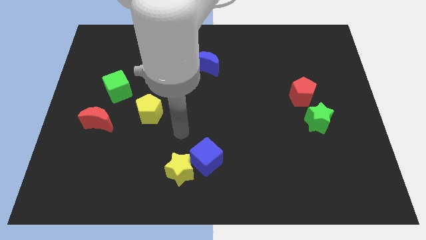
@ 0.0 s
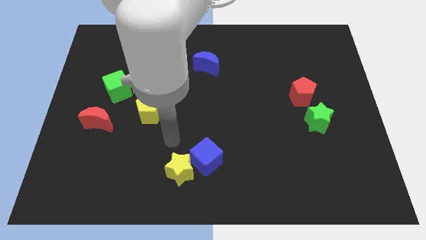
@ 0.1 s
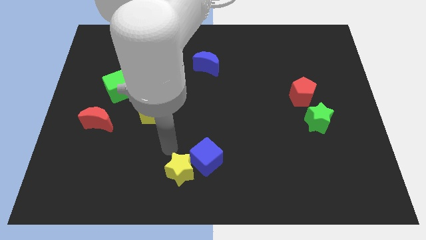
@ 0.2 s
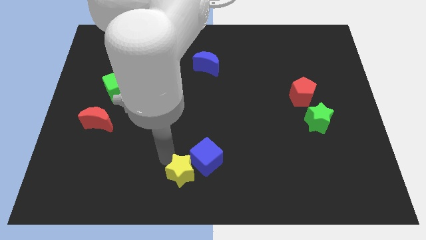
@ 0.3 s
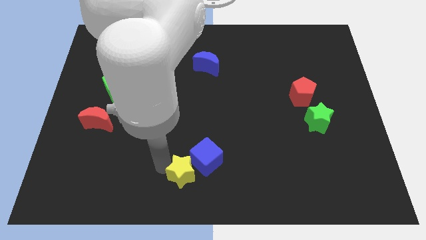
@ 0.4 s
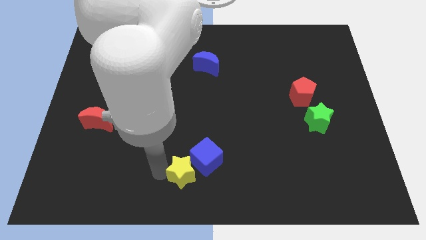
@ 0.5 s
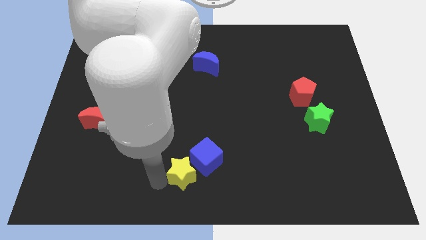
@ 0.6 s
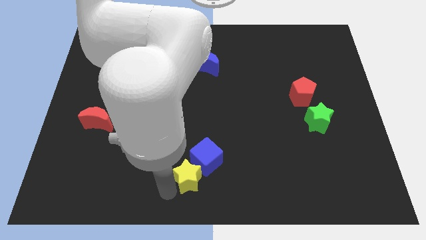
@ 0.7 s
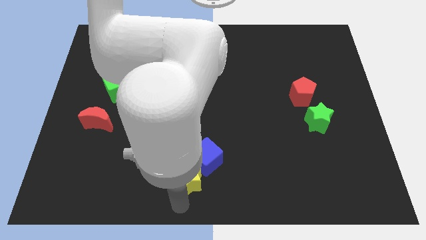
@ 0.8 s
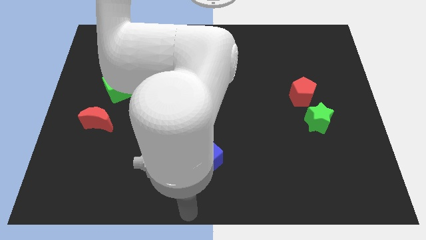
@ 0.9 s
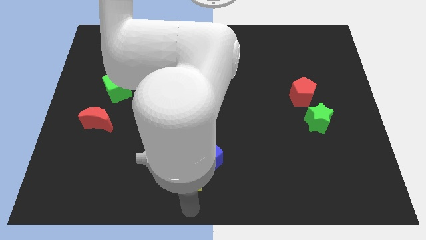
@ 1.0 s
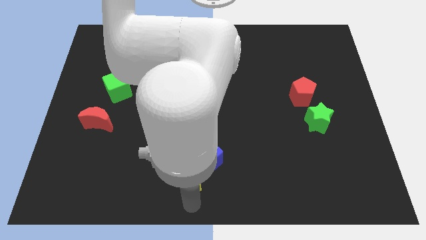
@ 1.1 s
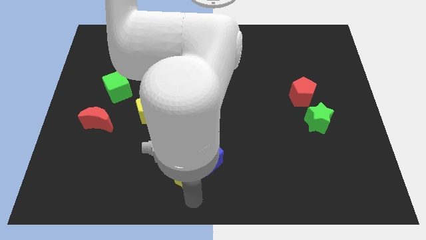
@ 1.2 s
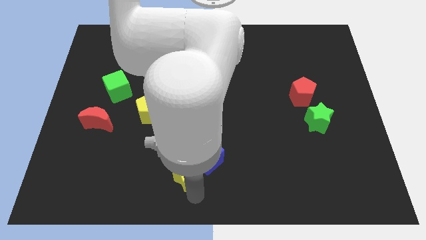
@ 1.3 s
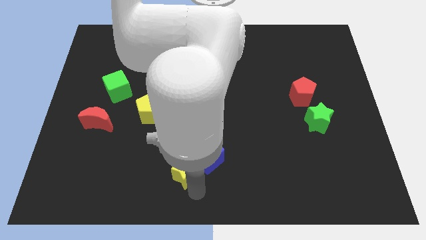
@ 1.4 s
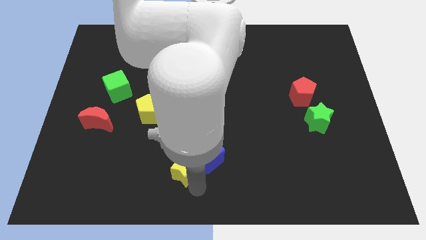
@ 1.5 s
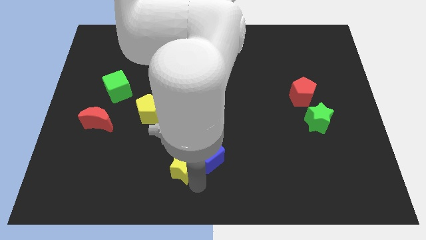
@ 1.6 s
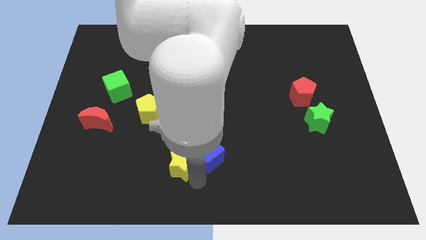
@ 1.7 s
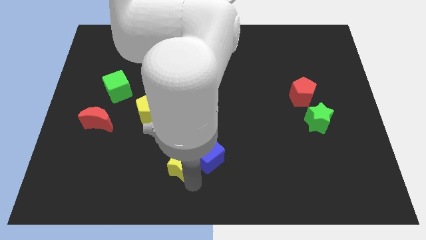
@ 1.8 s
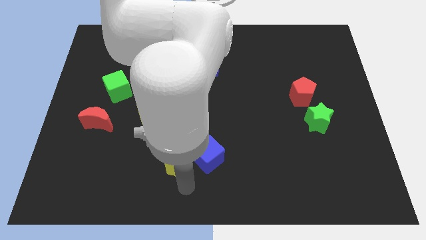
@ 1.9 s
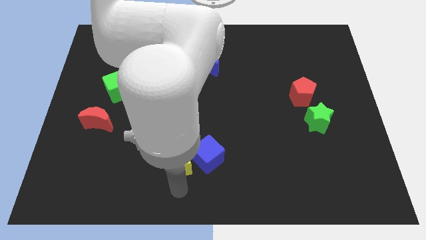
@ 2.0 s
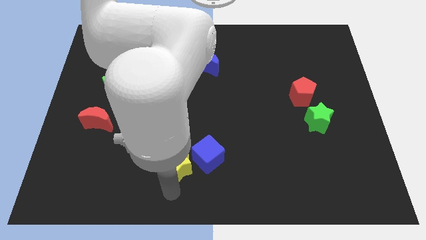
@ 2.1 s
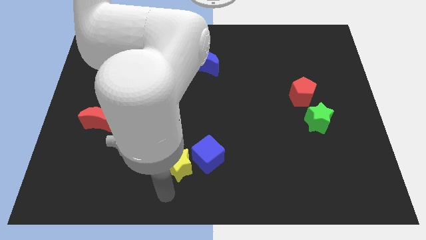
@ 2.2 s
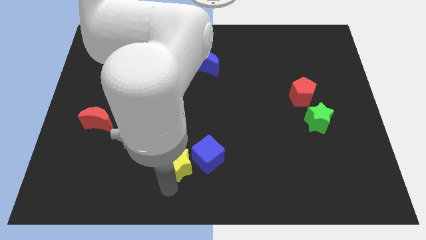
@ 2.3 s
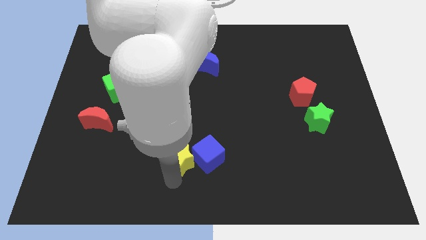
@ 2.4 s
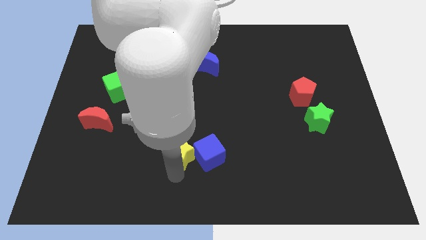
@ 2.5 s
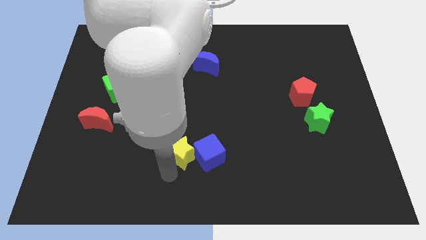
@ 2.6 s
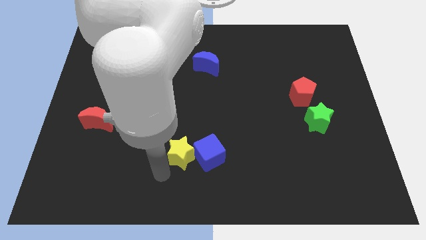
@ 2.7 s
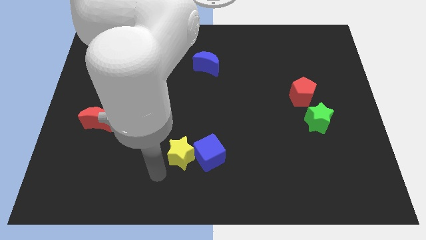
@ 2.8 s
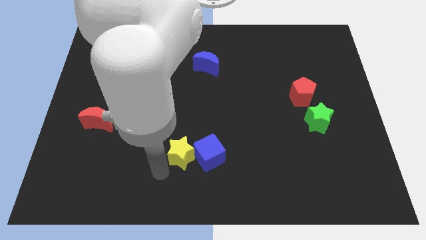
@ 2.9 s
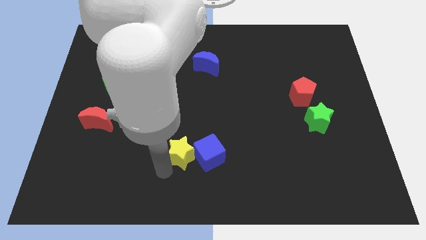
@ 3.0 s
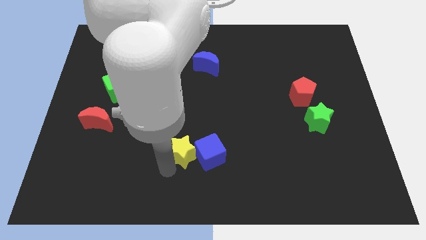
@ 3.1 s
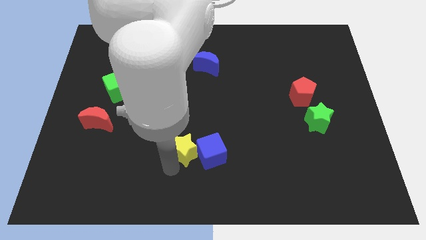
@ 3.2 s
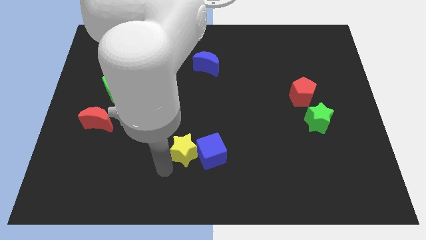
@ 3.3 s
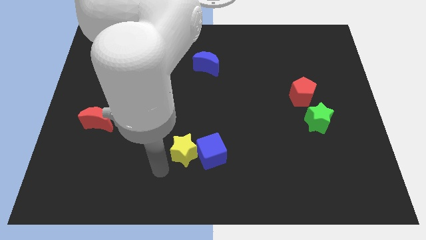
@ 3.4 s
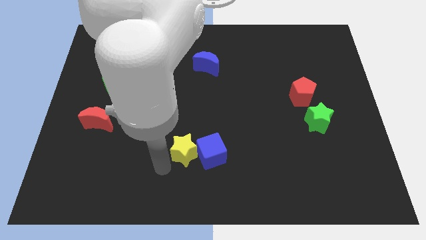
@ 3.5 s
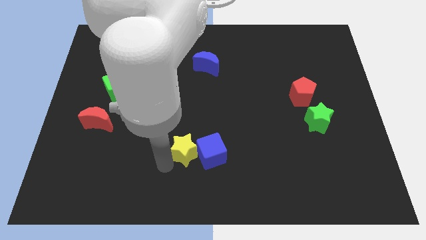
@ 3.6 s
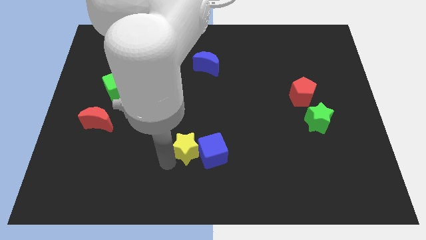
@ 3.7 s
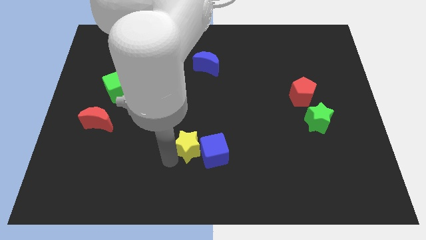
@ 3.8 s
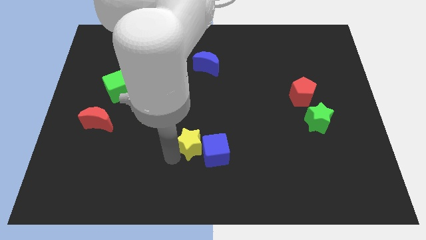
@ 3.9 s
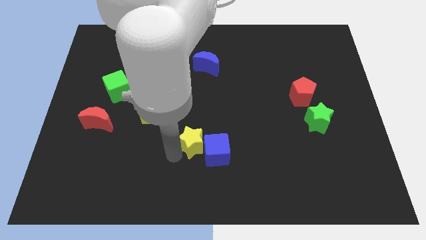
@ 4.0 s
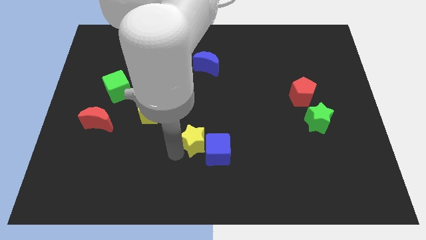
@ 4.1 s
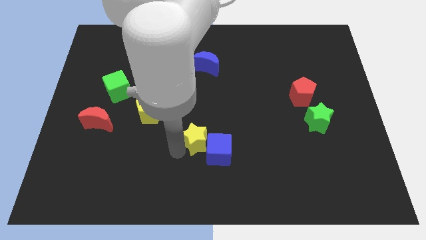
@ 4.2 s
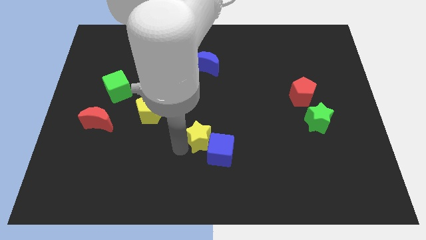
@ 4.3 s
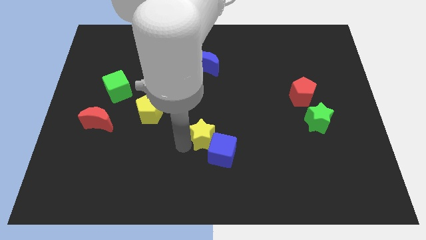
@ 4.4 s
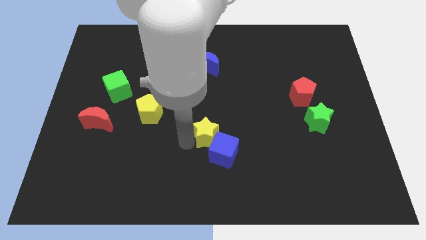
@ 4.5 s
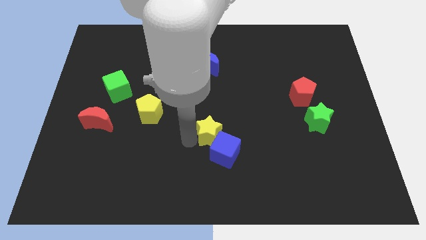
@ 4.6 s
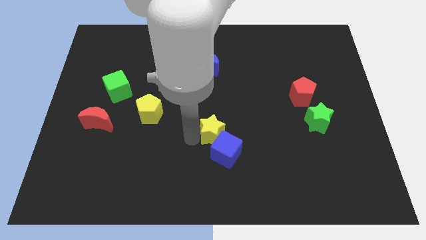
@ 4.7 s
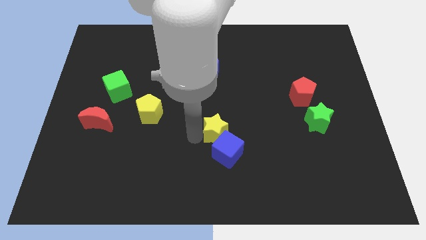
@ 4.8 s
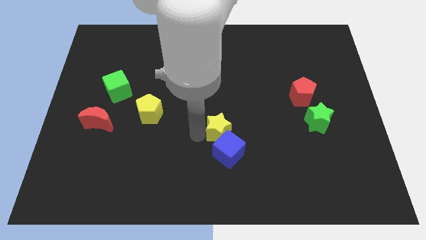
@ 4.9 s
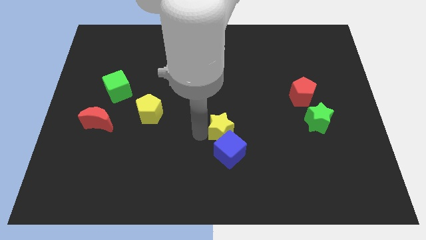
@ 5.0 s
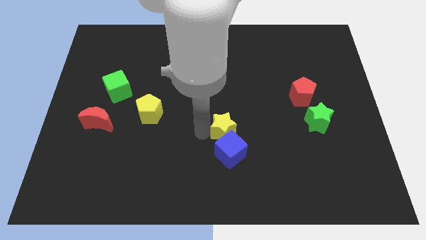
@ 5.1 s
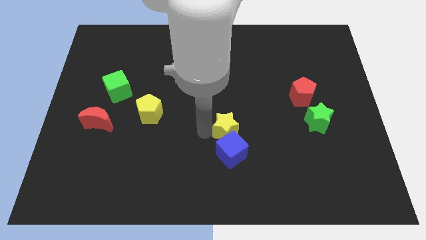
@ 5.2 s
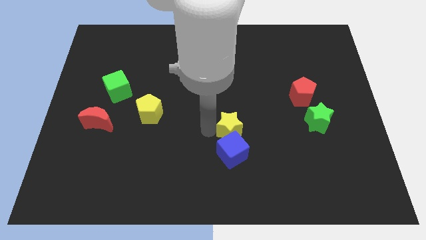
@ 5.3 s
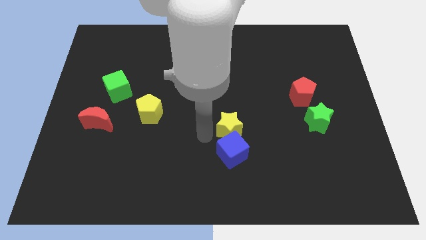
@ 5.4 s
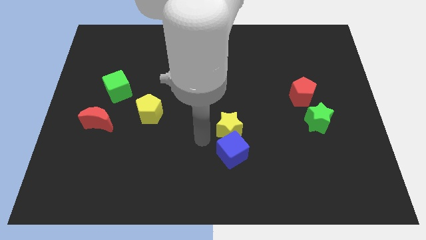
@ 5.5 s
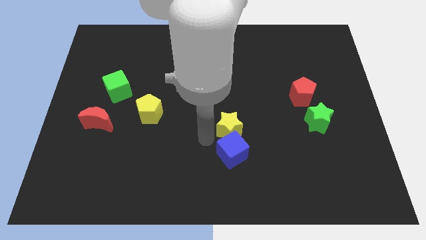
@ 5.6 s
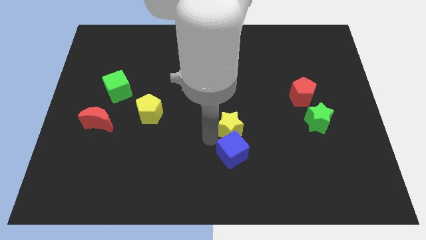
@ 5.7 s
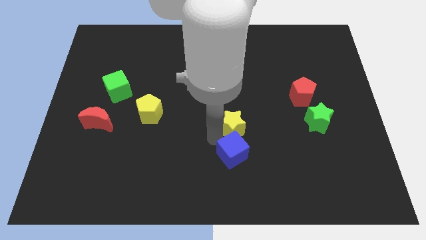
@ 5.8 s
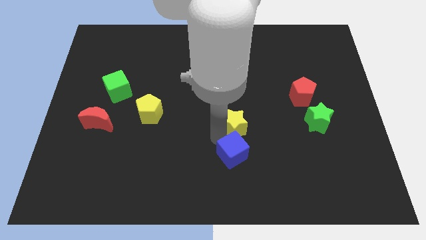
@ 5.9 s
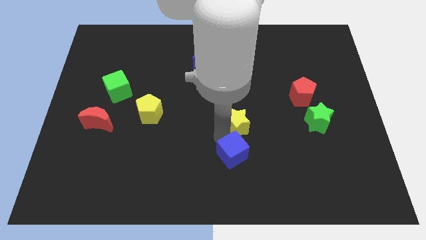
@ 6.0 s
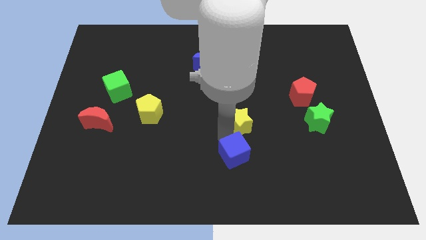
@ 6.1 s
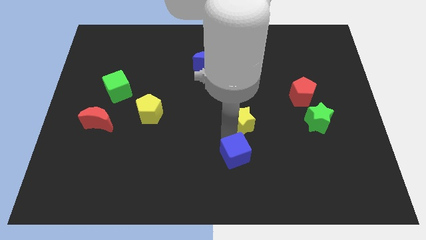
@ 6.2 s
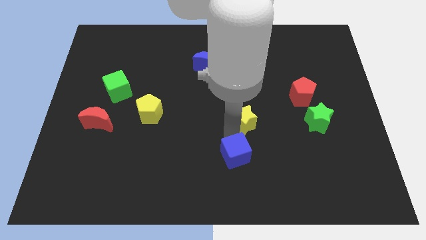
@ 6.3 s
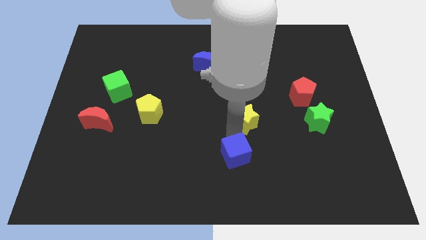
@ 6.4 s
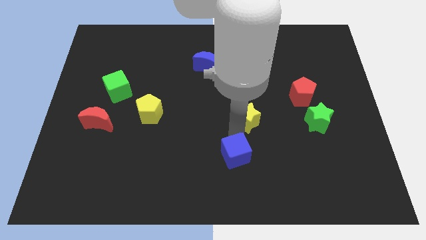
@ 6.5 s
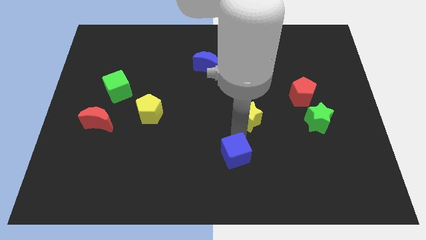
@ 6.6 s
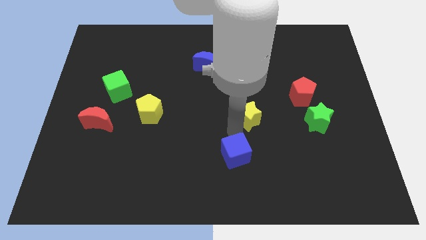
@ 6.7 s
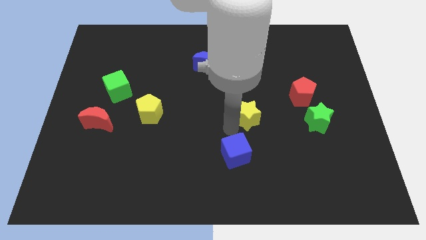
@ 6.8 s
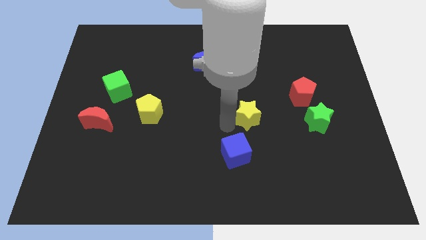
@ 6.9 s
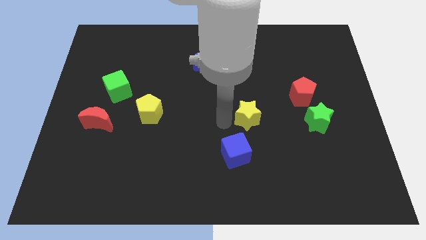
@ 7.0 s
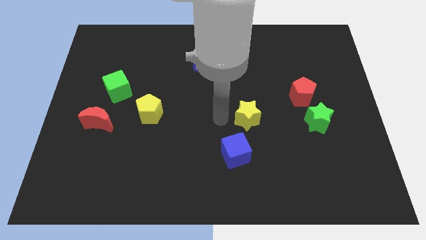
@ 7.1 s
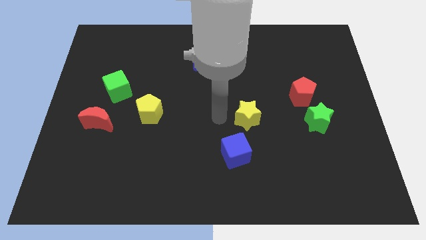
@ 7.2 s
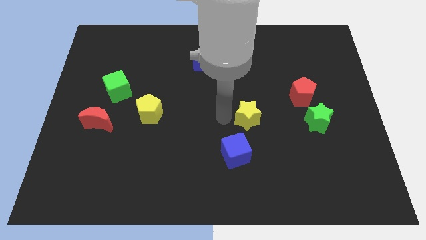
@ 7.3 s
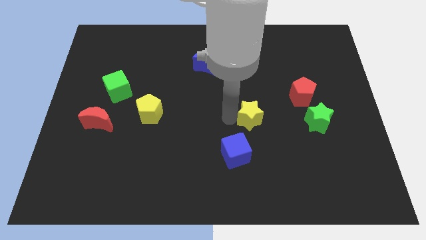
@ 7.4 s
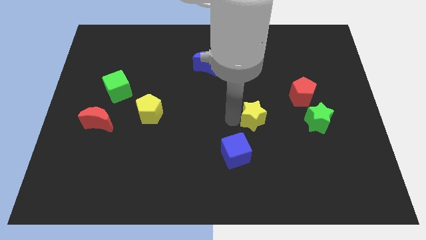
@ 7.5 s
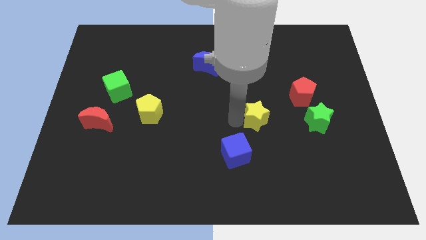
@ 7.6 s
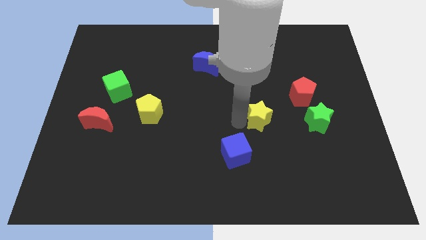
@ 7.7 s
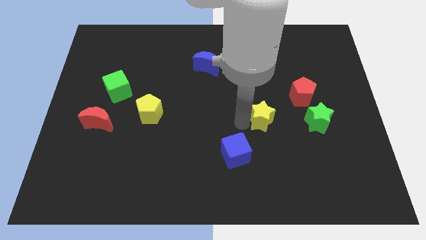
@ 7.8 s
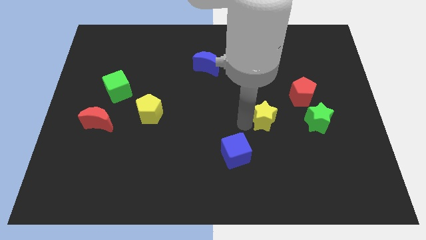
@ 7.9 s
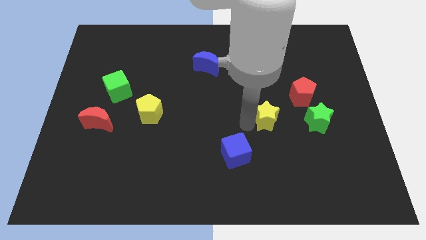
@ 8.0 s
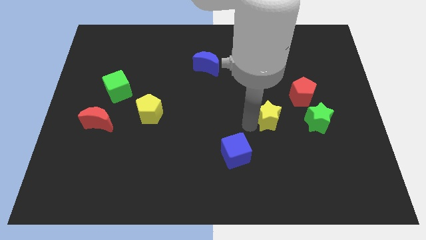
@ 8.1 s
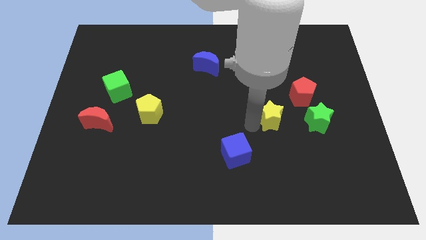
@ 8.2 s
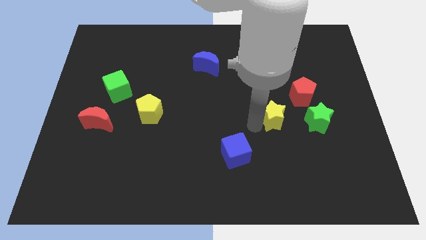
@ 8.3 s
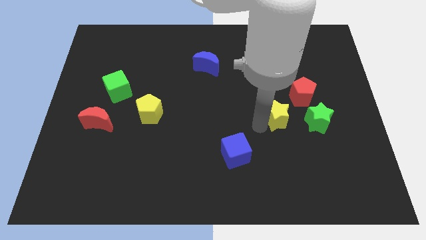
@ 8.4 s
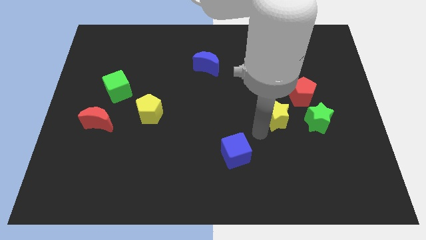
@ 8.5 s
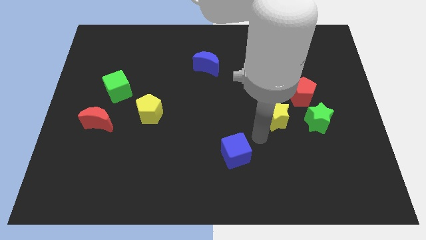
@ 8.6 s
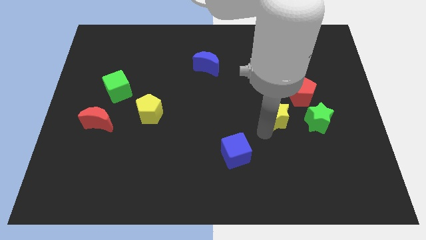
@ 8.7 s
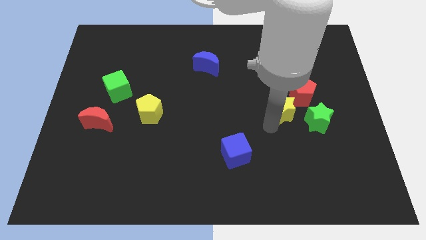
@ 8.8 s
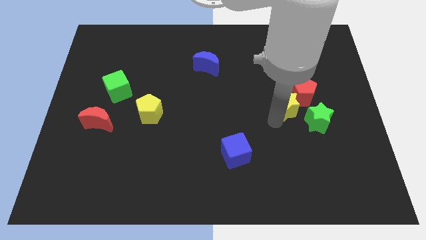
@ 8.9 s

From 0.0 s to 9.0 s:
put the yellow star to the red pentagon
